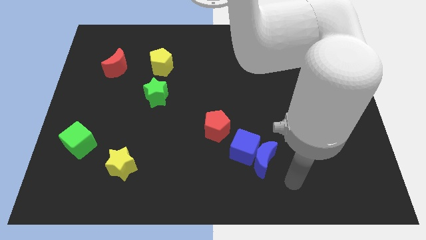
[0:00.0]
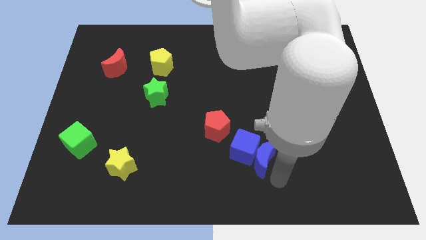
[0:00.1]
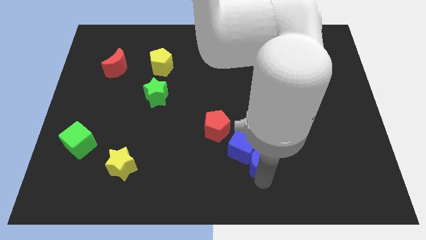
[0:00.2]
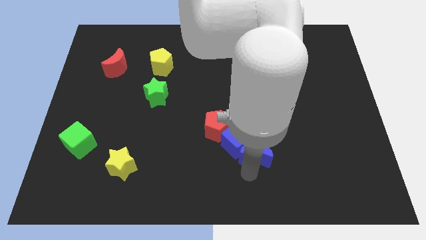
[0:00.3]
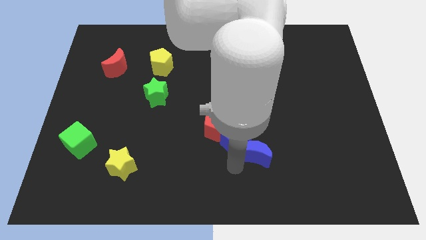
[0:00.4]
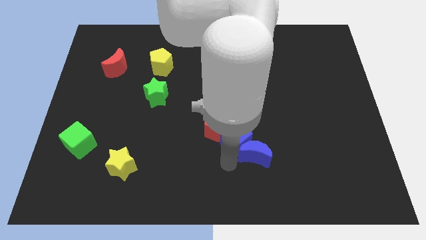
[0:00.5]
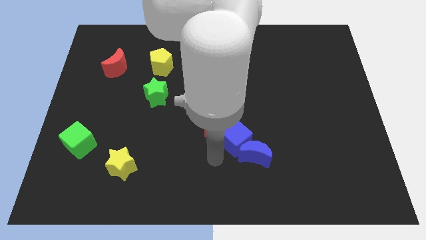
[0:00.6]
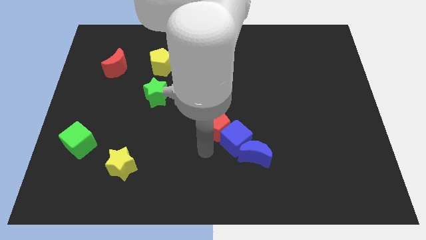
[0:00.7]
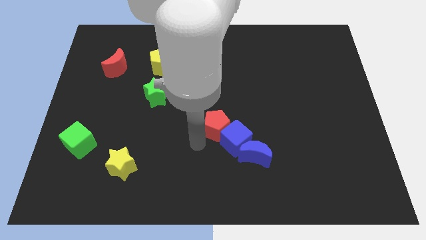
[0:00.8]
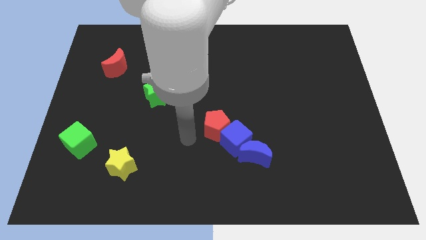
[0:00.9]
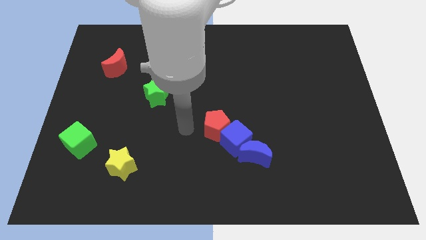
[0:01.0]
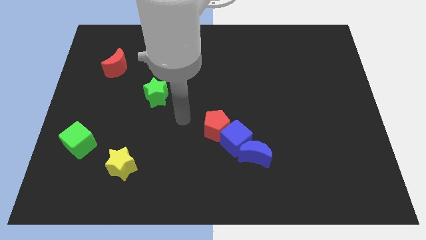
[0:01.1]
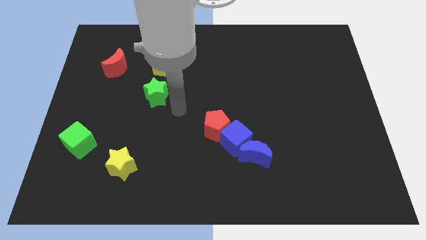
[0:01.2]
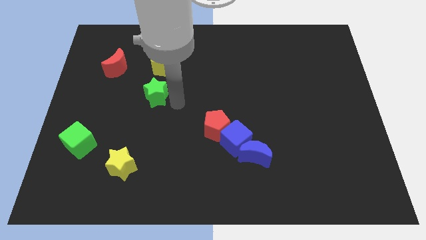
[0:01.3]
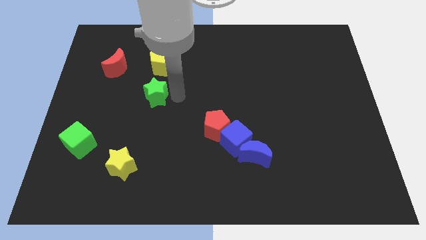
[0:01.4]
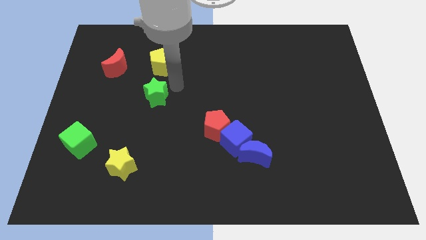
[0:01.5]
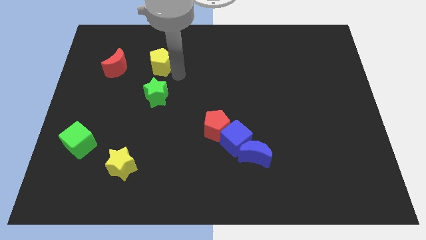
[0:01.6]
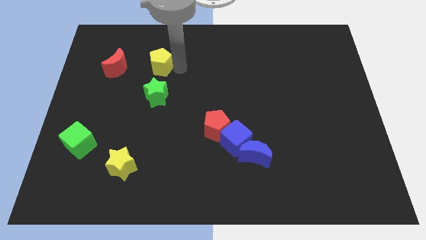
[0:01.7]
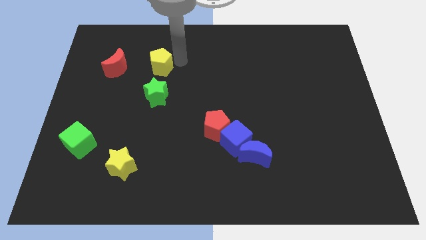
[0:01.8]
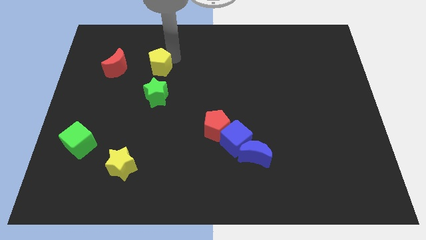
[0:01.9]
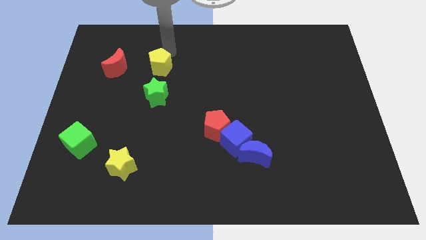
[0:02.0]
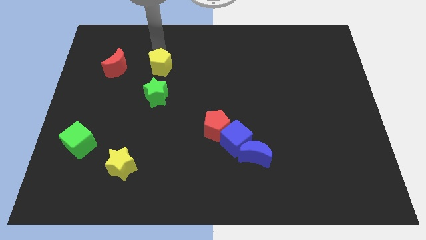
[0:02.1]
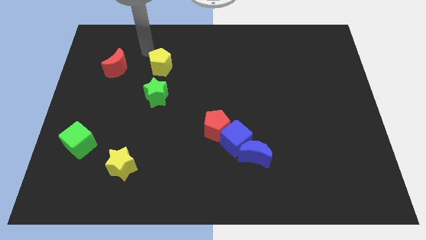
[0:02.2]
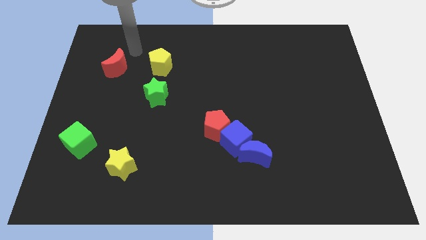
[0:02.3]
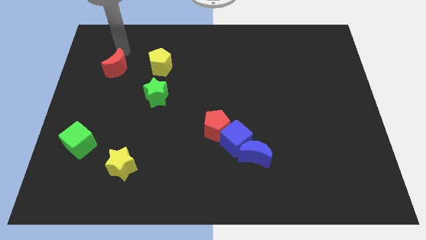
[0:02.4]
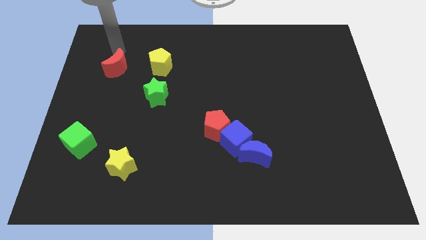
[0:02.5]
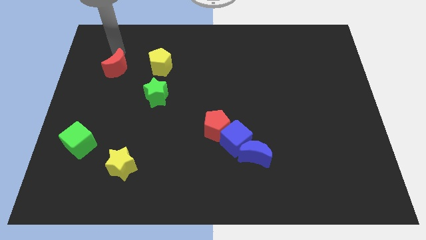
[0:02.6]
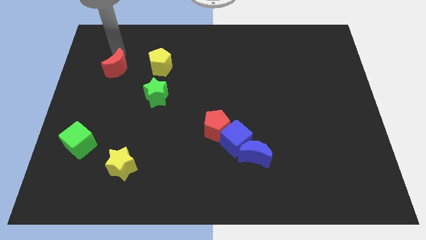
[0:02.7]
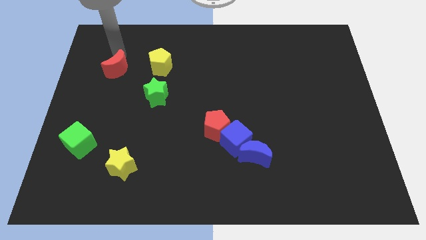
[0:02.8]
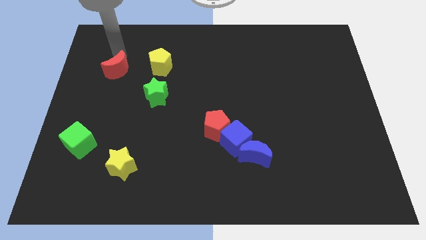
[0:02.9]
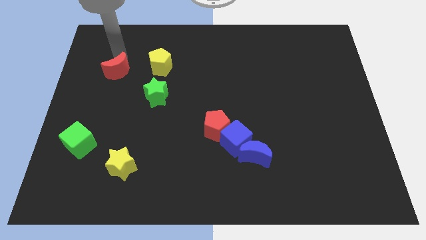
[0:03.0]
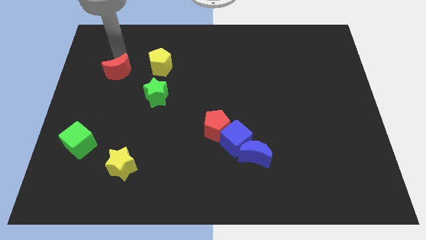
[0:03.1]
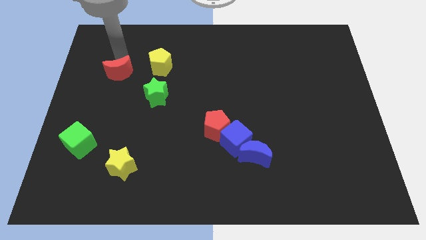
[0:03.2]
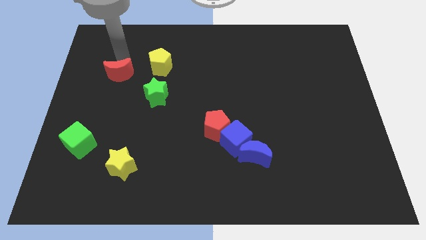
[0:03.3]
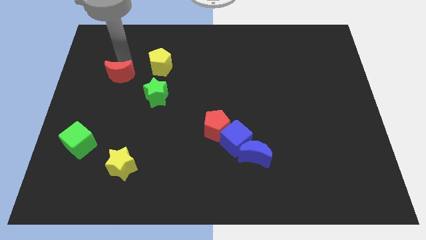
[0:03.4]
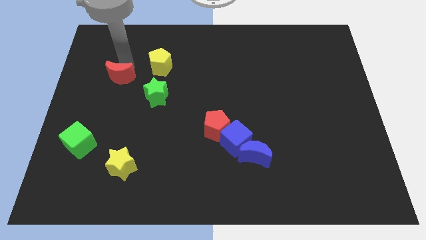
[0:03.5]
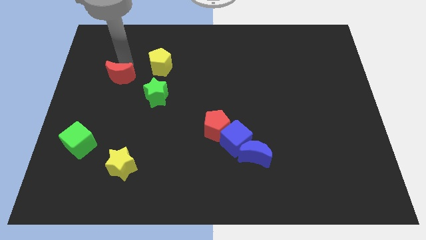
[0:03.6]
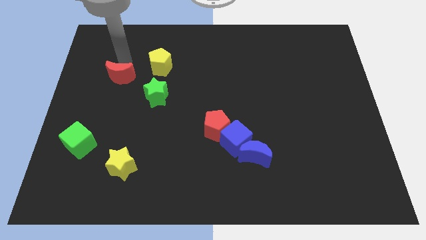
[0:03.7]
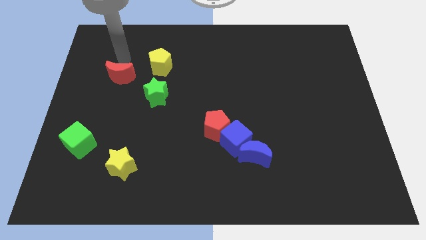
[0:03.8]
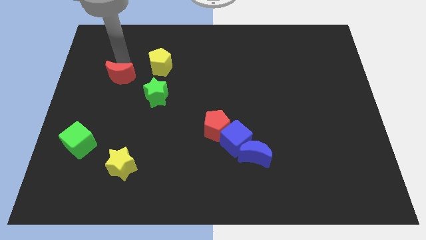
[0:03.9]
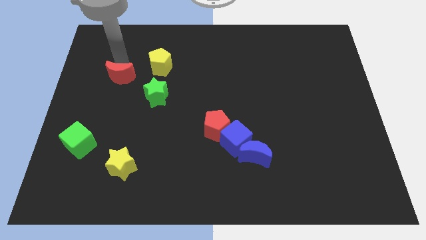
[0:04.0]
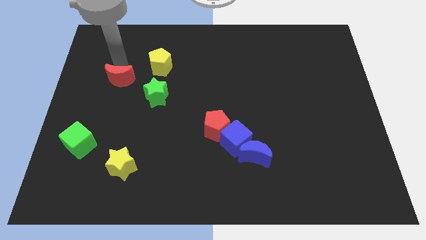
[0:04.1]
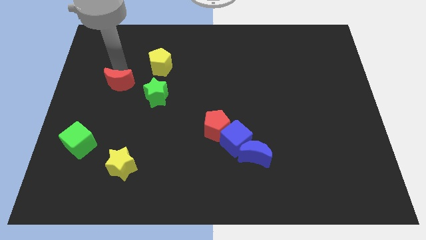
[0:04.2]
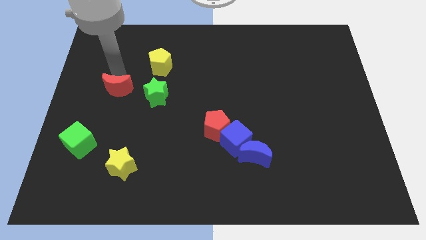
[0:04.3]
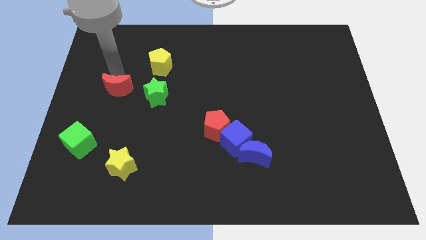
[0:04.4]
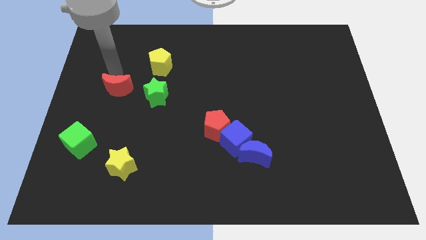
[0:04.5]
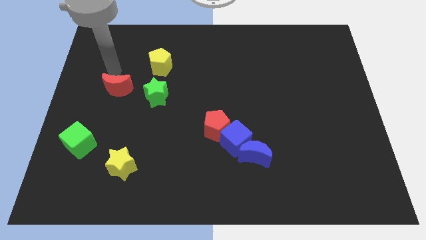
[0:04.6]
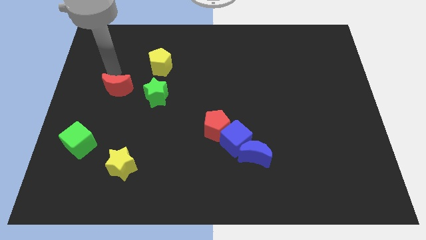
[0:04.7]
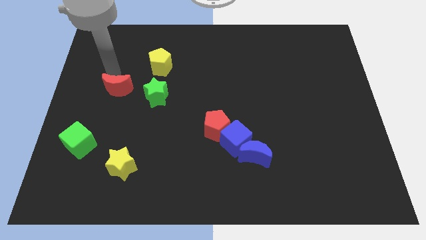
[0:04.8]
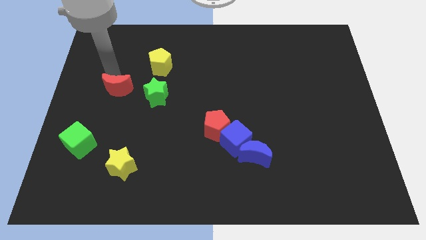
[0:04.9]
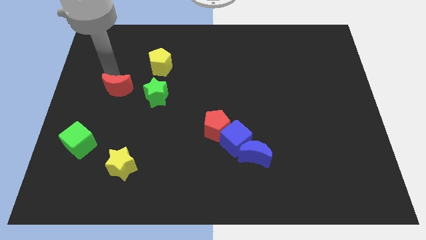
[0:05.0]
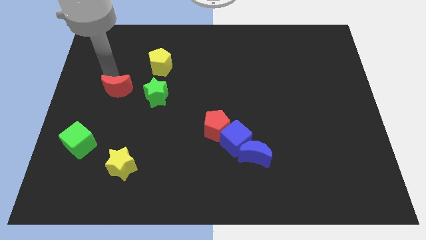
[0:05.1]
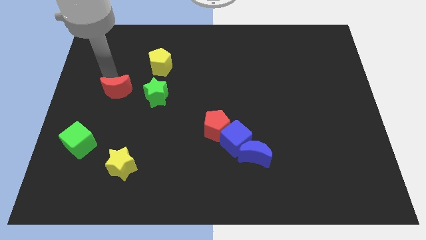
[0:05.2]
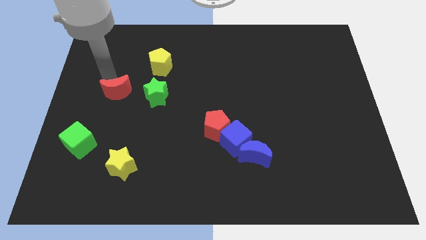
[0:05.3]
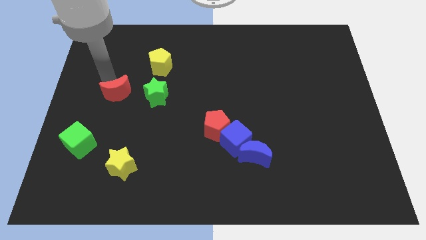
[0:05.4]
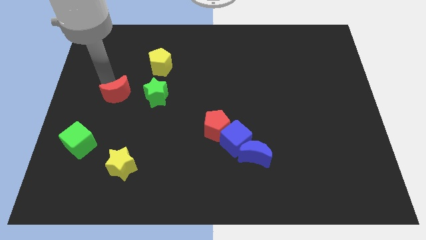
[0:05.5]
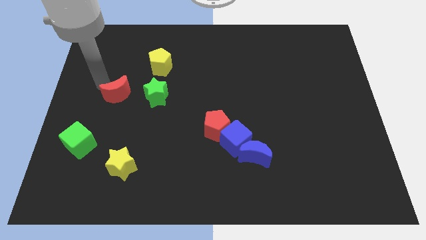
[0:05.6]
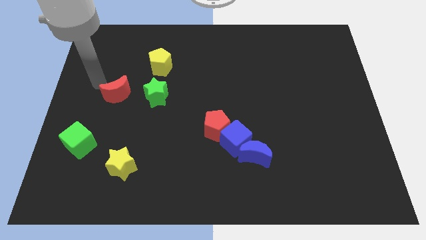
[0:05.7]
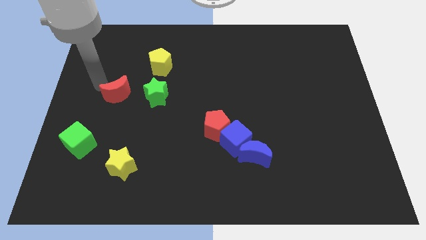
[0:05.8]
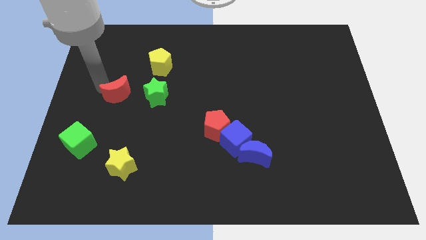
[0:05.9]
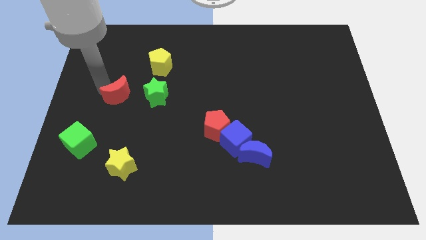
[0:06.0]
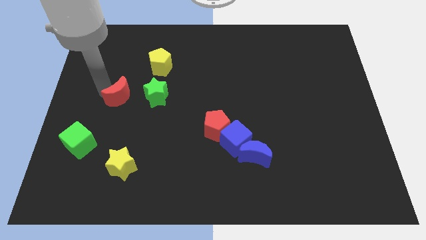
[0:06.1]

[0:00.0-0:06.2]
move the red moon down and right a little

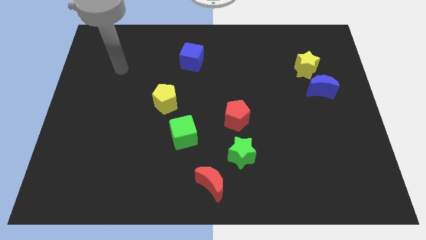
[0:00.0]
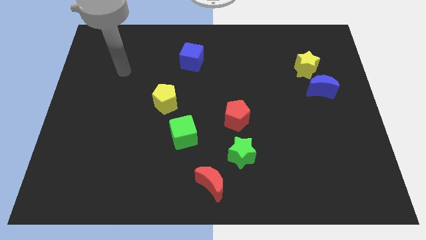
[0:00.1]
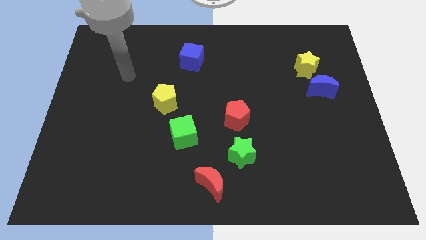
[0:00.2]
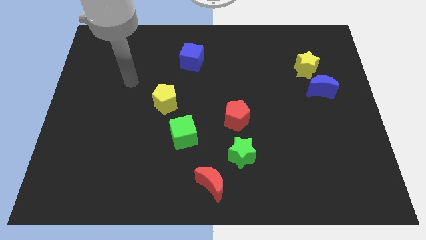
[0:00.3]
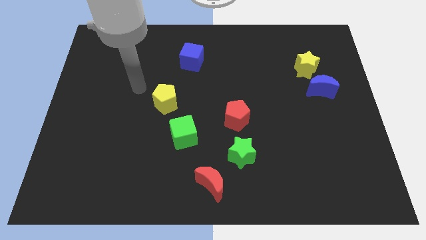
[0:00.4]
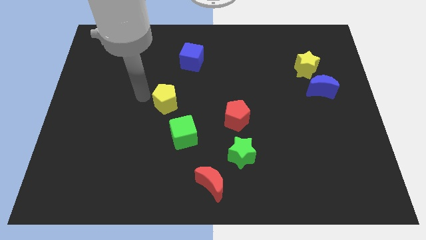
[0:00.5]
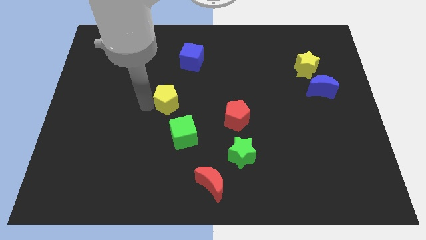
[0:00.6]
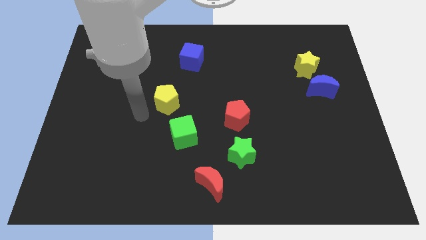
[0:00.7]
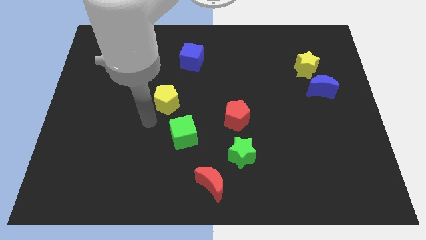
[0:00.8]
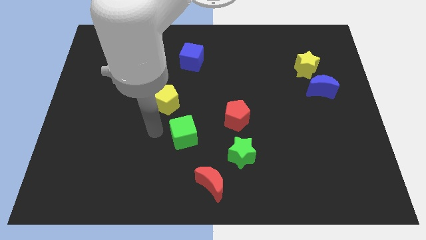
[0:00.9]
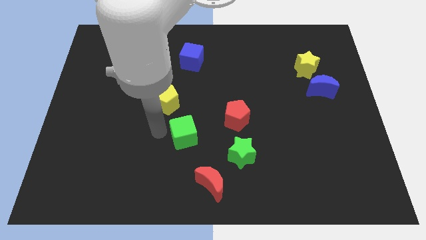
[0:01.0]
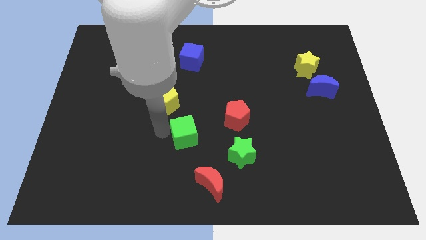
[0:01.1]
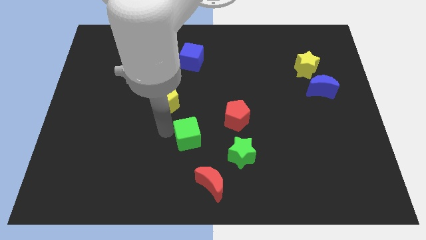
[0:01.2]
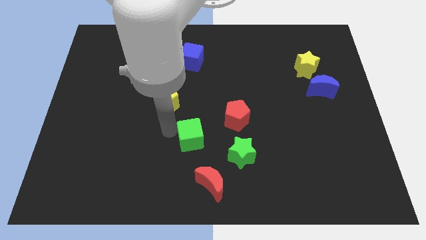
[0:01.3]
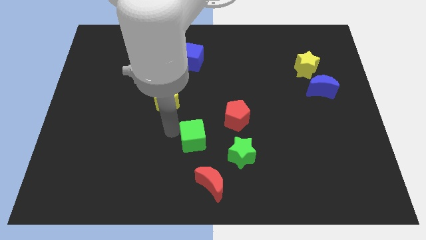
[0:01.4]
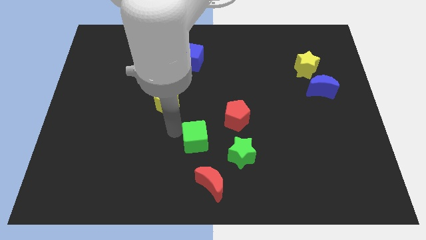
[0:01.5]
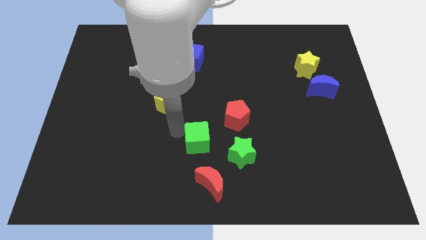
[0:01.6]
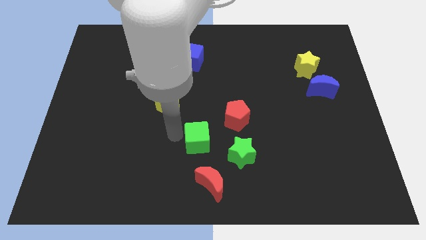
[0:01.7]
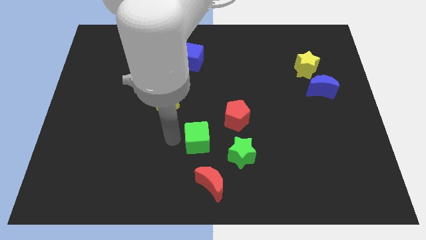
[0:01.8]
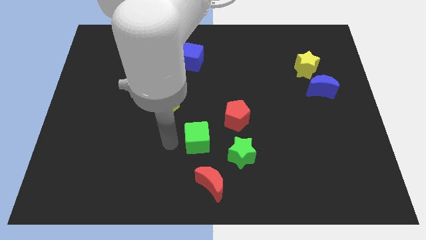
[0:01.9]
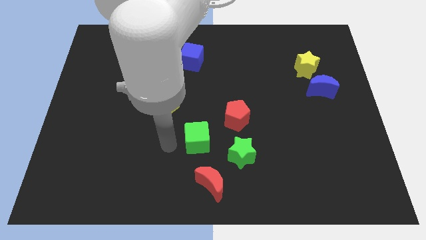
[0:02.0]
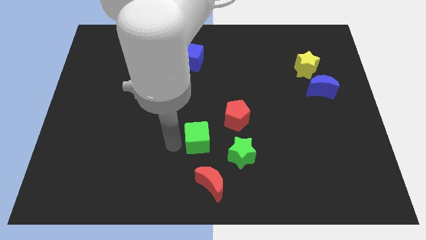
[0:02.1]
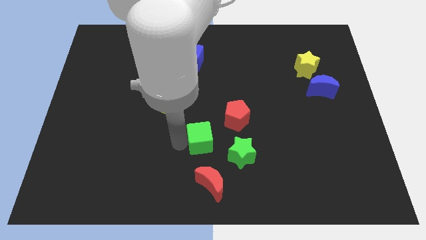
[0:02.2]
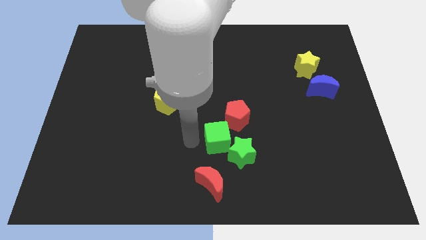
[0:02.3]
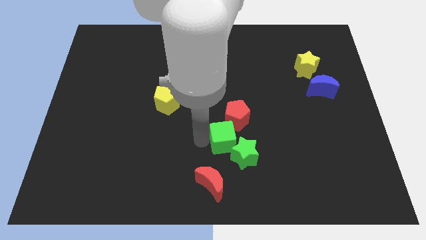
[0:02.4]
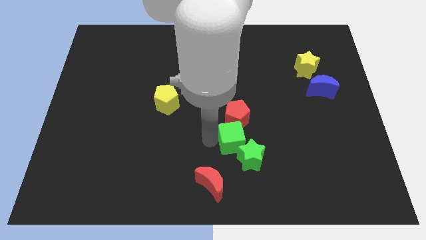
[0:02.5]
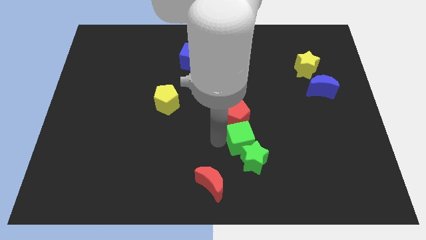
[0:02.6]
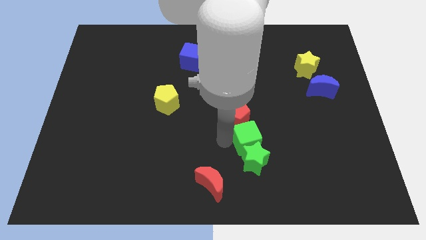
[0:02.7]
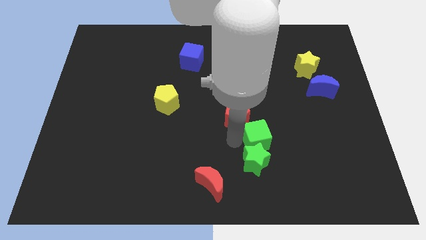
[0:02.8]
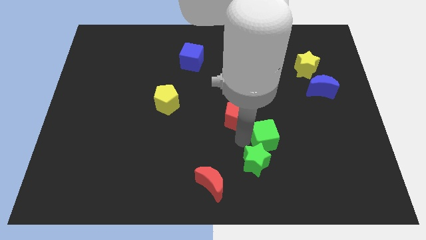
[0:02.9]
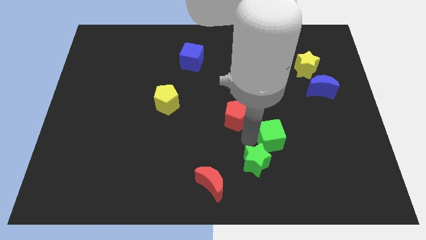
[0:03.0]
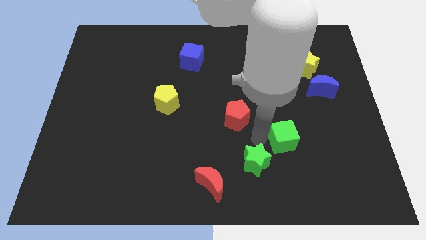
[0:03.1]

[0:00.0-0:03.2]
push the green cube right
